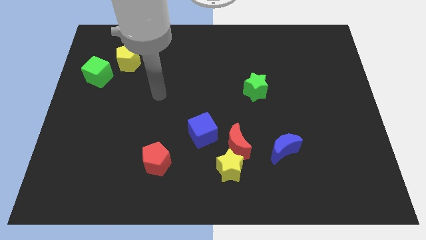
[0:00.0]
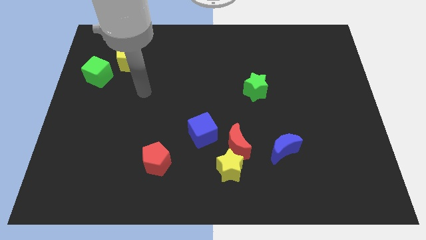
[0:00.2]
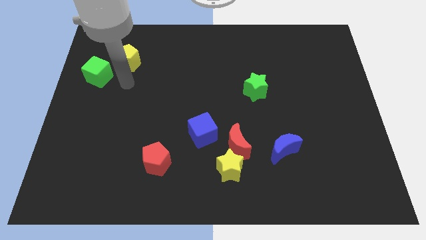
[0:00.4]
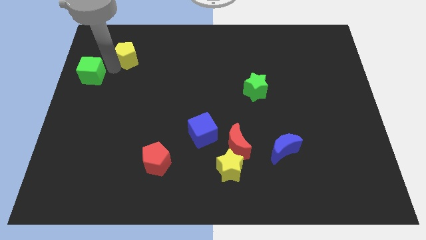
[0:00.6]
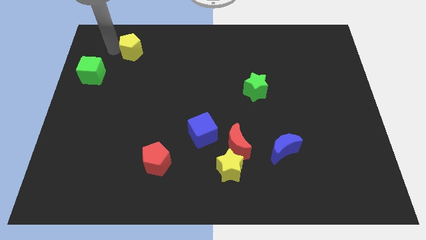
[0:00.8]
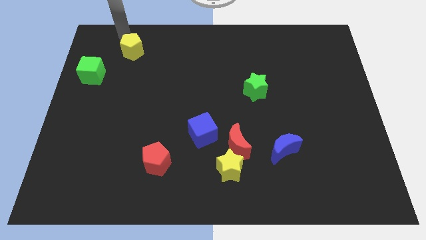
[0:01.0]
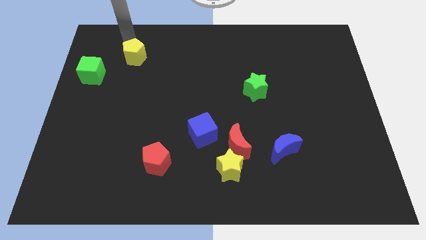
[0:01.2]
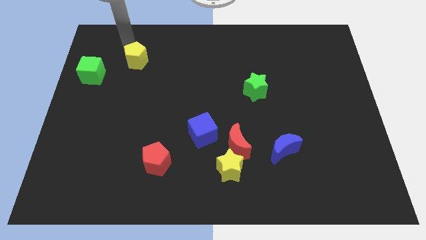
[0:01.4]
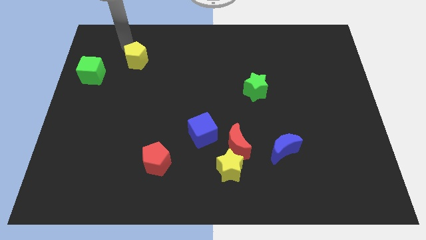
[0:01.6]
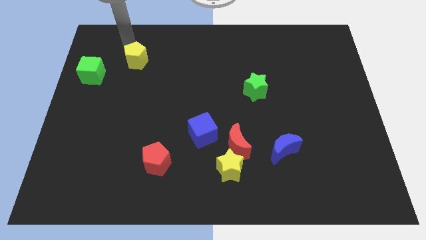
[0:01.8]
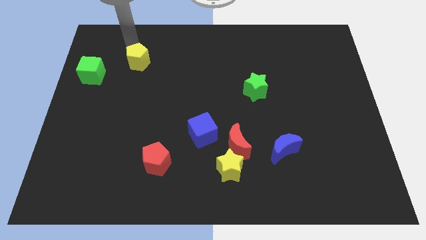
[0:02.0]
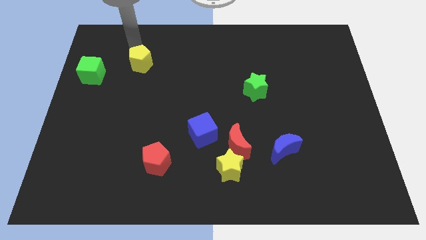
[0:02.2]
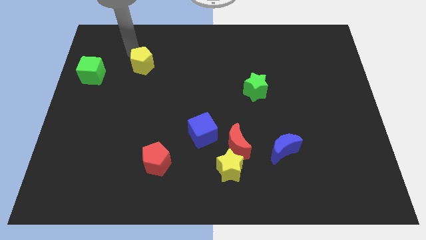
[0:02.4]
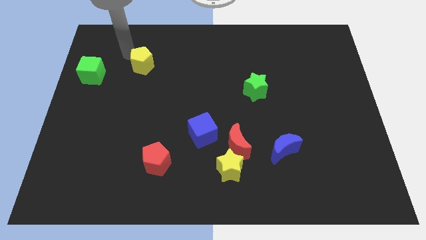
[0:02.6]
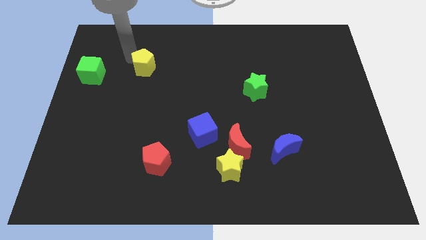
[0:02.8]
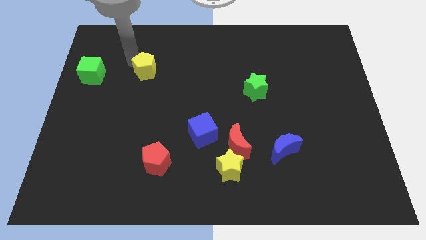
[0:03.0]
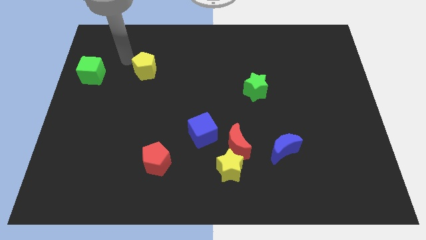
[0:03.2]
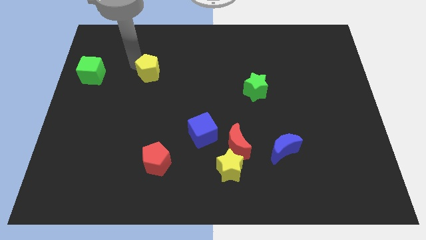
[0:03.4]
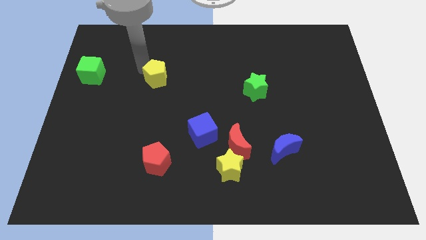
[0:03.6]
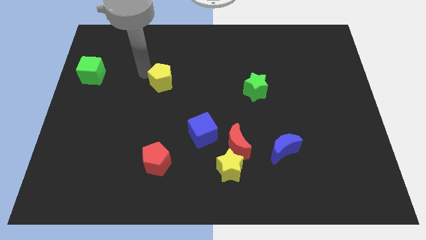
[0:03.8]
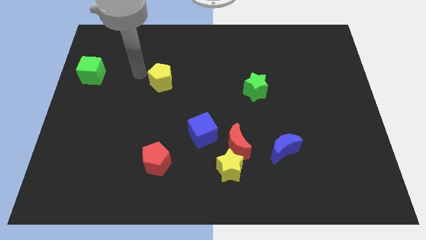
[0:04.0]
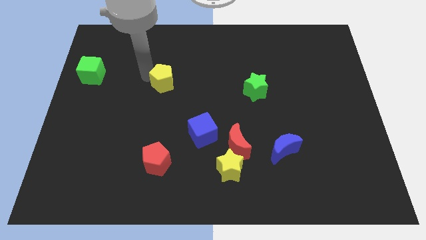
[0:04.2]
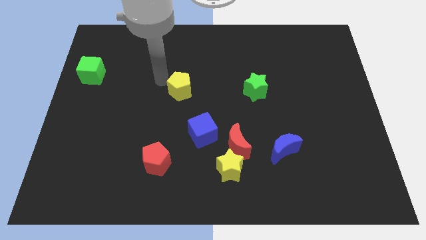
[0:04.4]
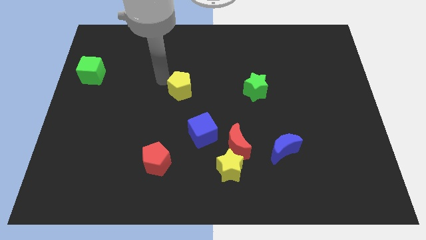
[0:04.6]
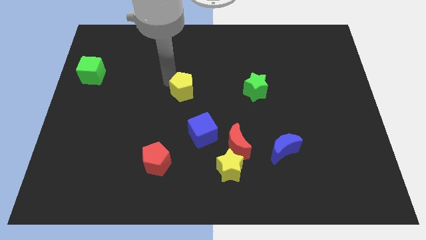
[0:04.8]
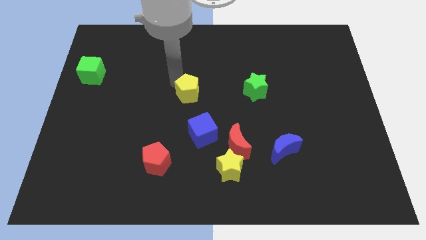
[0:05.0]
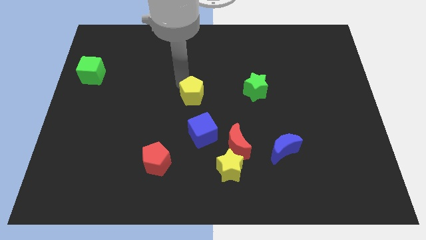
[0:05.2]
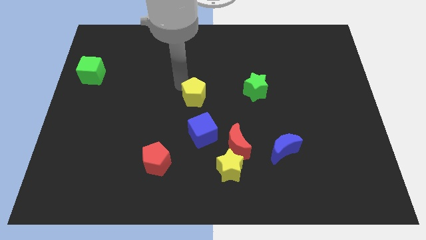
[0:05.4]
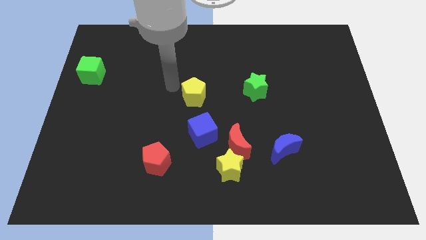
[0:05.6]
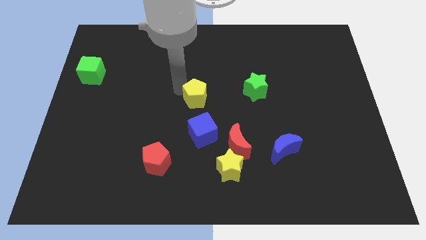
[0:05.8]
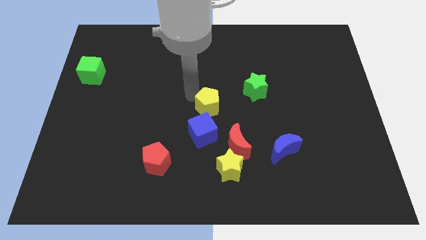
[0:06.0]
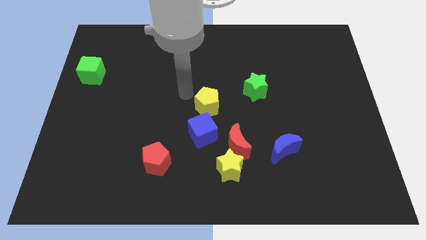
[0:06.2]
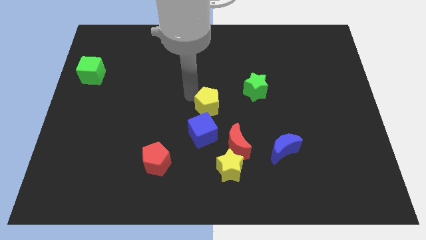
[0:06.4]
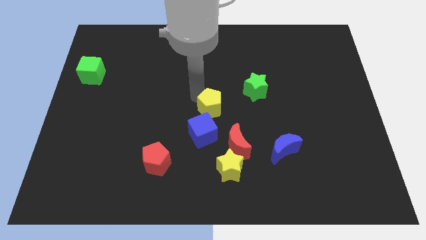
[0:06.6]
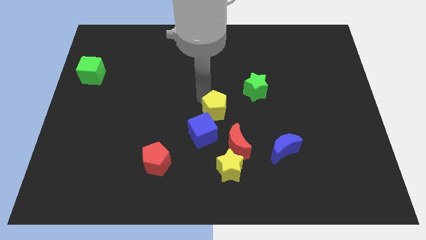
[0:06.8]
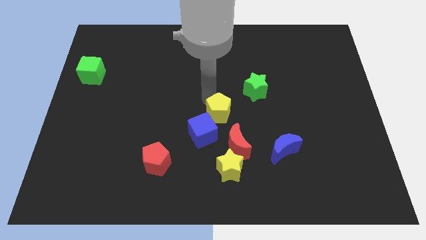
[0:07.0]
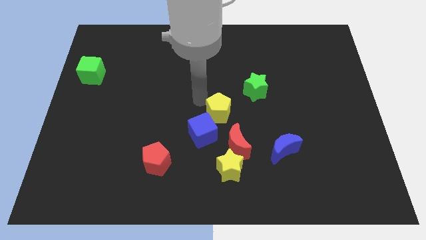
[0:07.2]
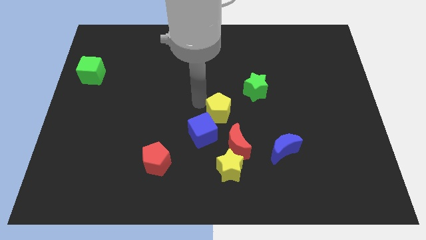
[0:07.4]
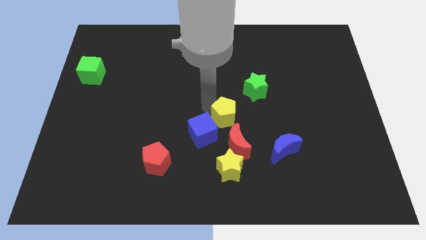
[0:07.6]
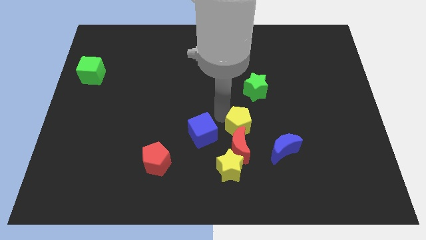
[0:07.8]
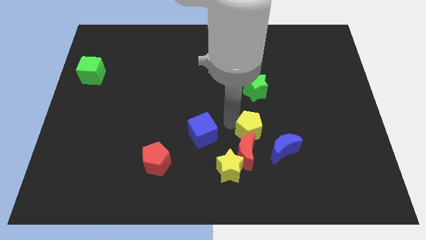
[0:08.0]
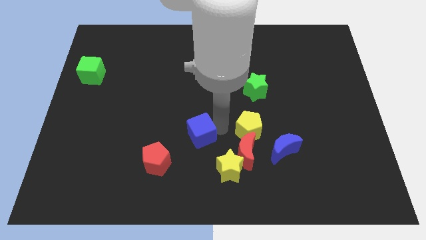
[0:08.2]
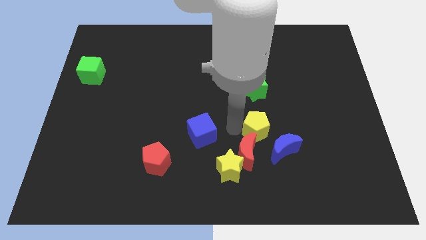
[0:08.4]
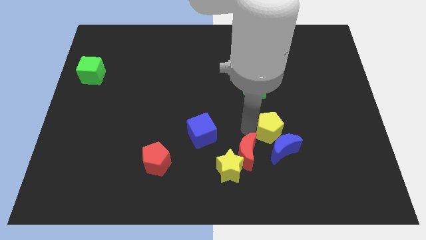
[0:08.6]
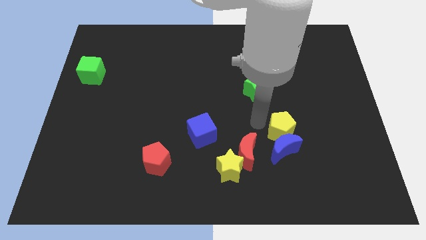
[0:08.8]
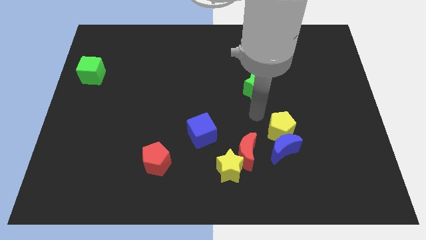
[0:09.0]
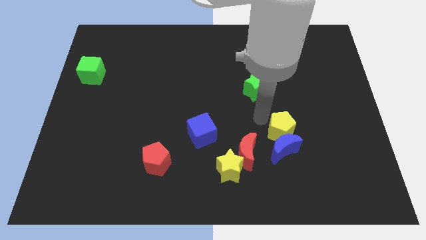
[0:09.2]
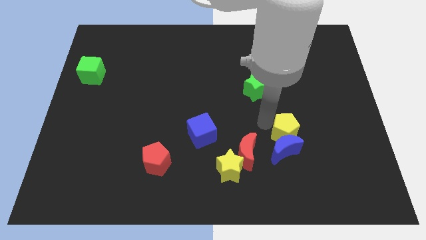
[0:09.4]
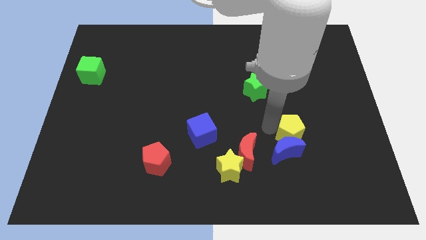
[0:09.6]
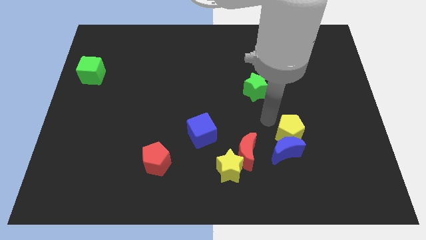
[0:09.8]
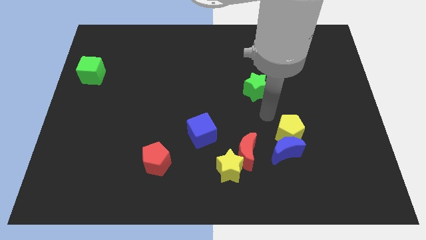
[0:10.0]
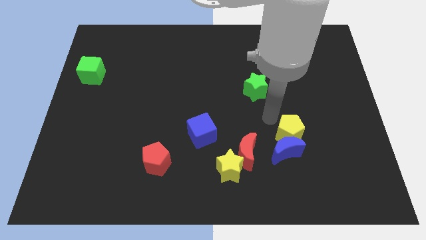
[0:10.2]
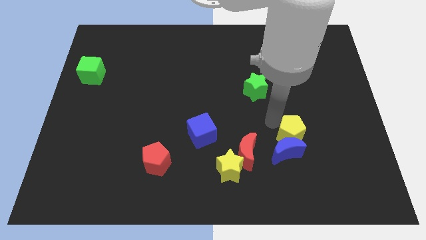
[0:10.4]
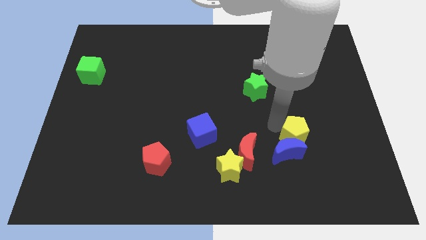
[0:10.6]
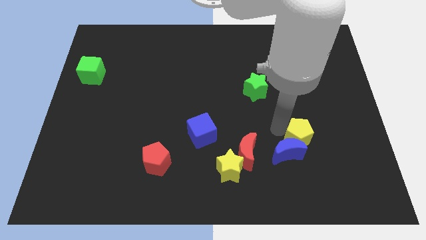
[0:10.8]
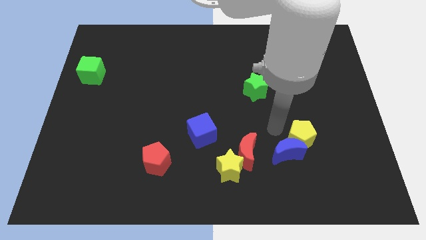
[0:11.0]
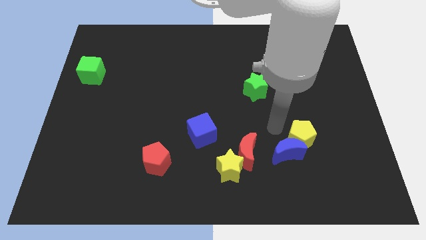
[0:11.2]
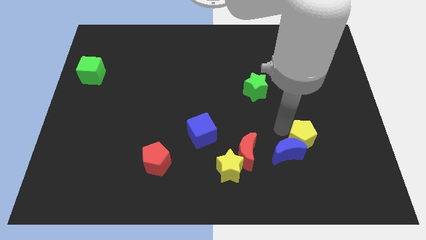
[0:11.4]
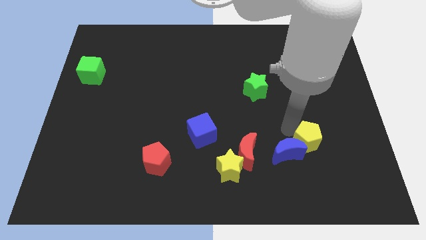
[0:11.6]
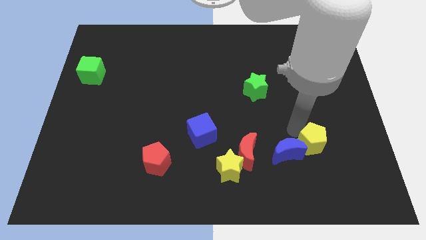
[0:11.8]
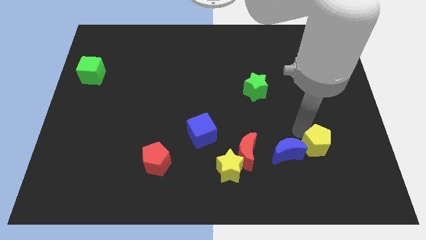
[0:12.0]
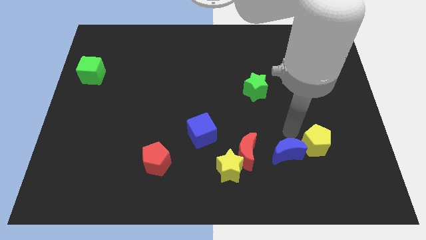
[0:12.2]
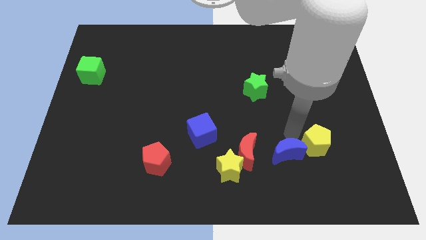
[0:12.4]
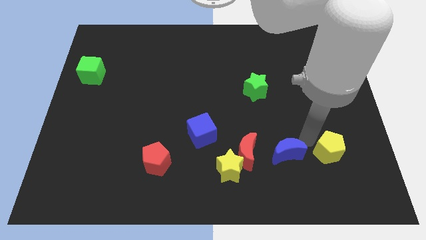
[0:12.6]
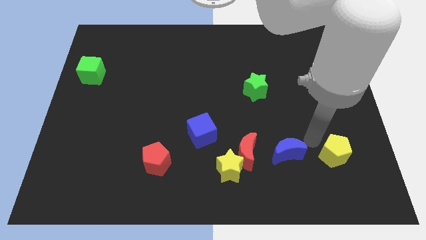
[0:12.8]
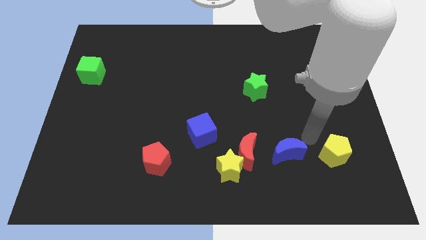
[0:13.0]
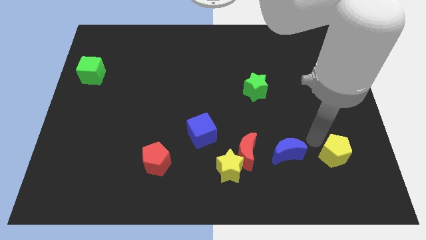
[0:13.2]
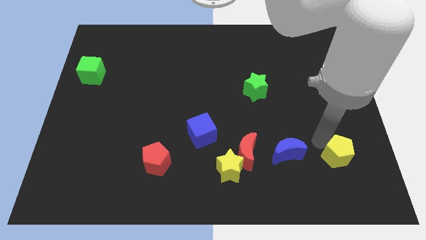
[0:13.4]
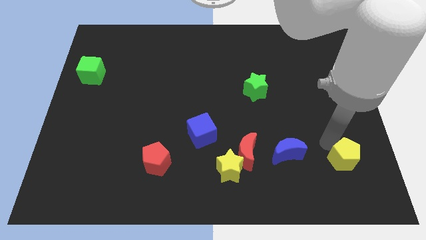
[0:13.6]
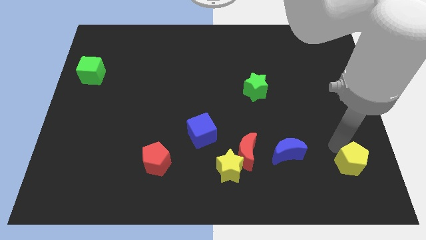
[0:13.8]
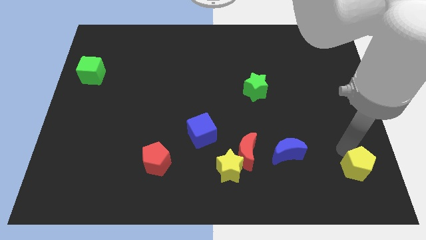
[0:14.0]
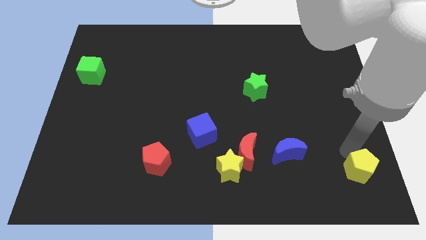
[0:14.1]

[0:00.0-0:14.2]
put the yellow pentagon to the lower right corner

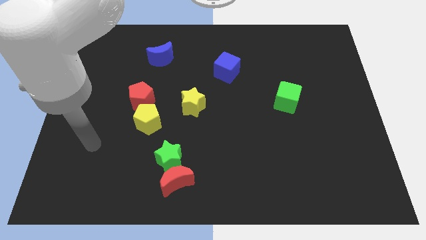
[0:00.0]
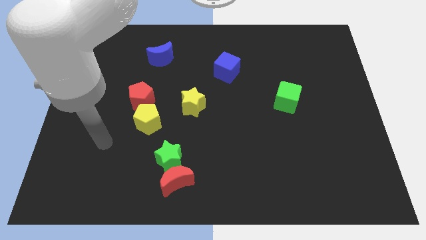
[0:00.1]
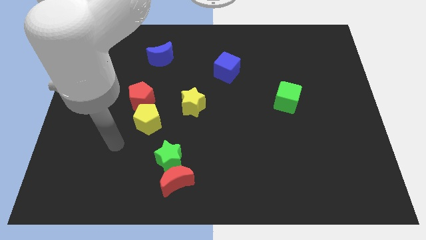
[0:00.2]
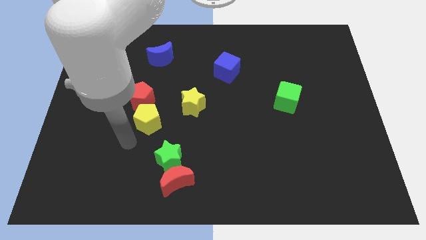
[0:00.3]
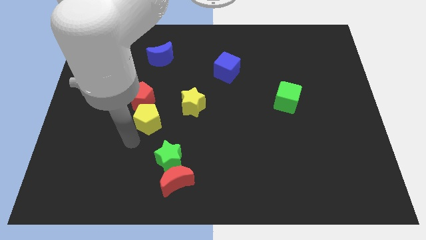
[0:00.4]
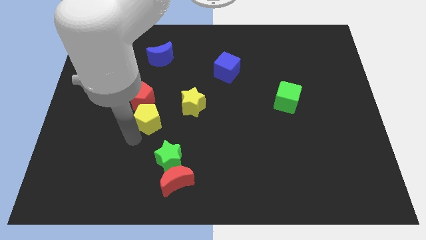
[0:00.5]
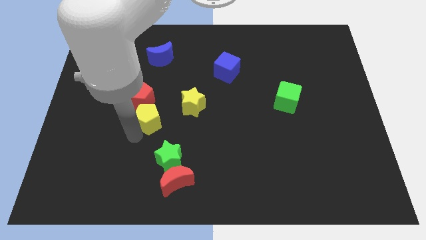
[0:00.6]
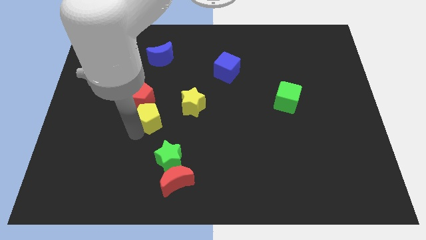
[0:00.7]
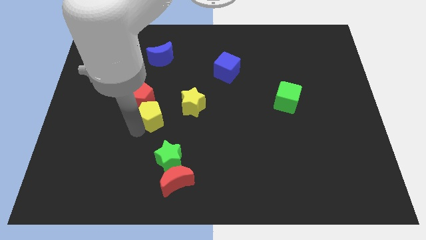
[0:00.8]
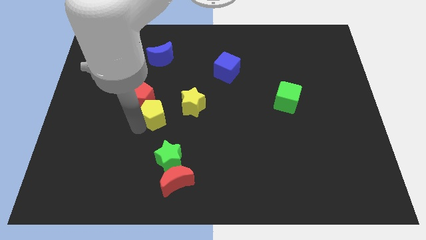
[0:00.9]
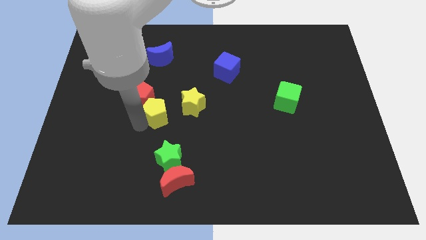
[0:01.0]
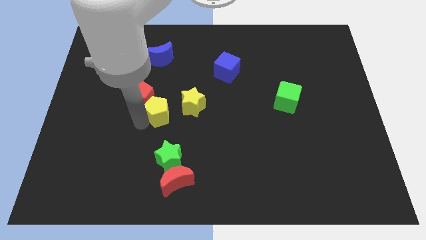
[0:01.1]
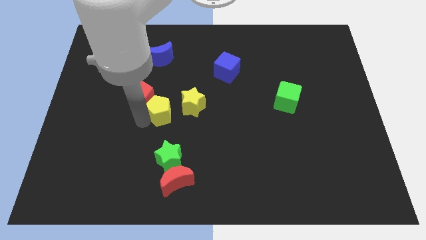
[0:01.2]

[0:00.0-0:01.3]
move the yellow pentagon to the middle
